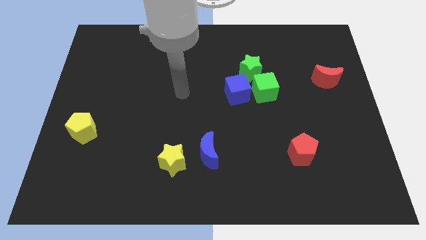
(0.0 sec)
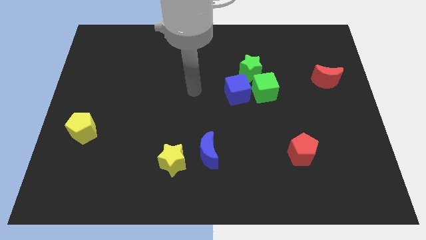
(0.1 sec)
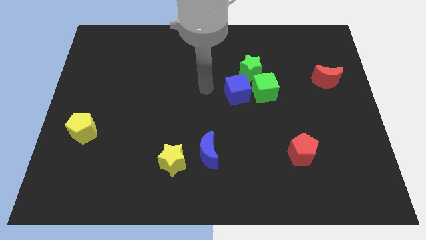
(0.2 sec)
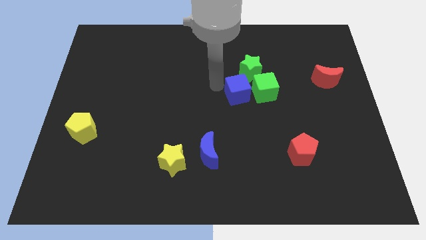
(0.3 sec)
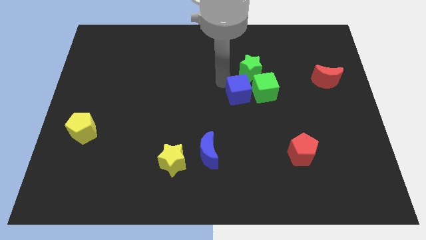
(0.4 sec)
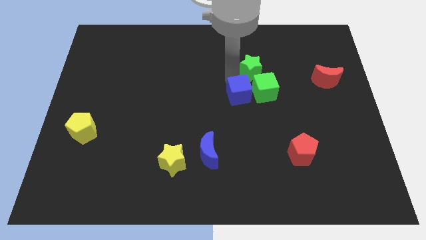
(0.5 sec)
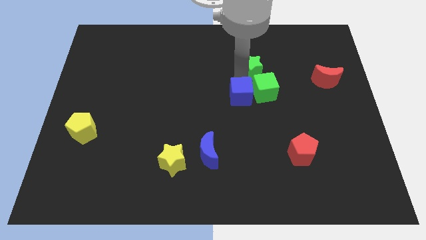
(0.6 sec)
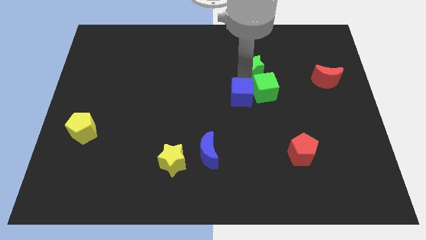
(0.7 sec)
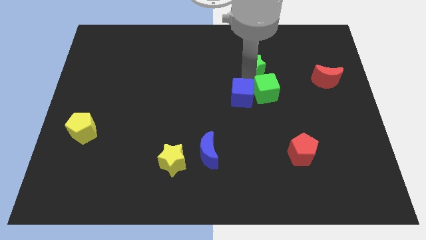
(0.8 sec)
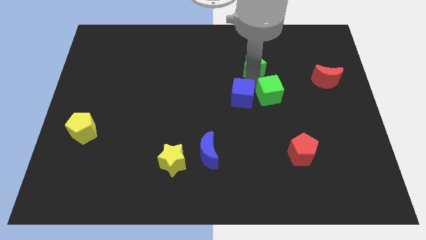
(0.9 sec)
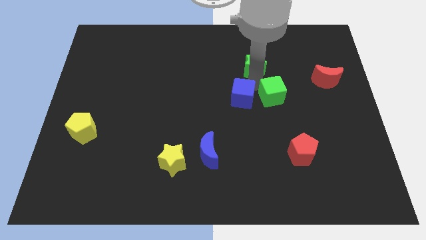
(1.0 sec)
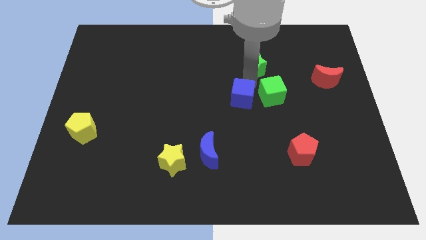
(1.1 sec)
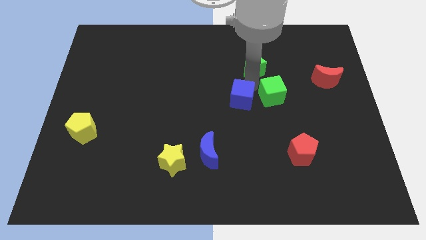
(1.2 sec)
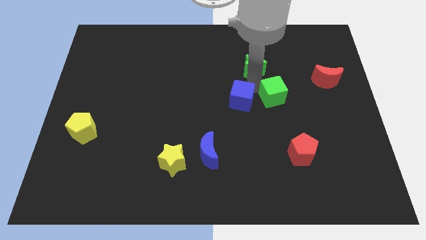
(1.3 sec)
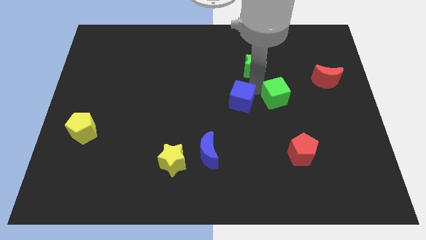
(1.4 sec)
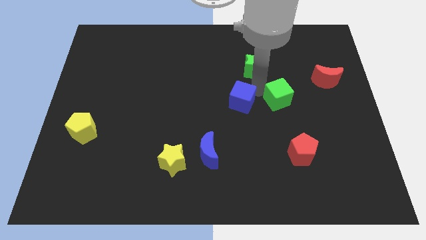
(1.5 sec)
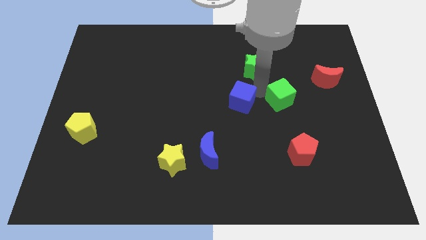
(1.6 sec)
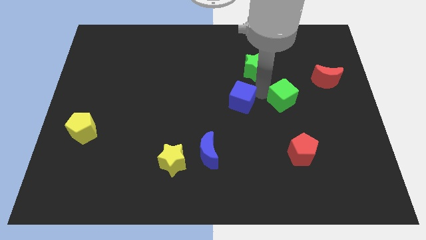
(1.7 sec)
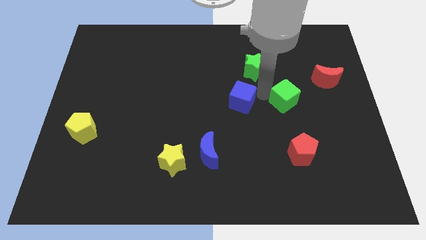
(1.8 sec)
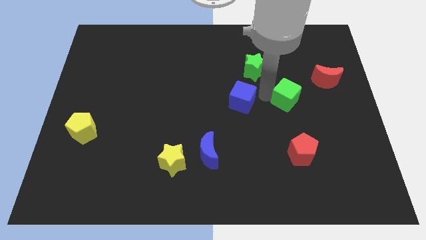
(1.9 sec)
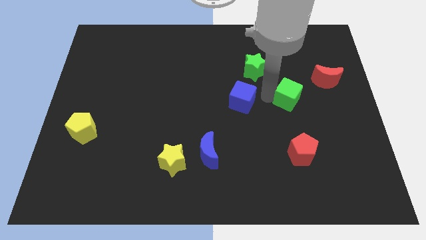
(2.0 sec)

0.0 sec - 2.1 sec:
pull the green cube apart from the blue cube and green star

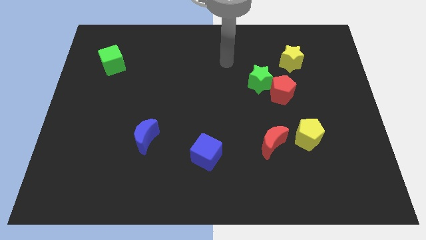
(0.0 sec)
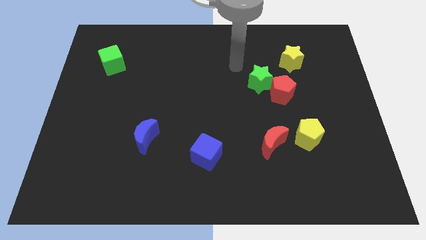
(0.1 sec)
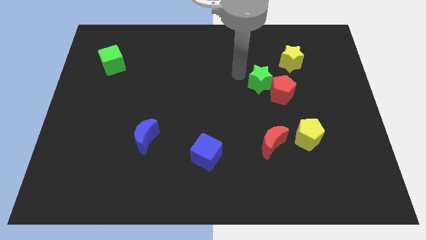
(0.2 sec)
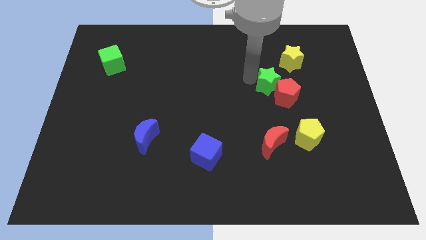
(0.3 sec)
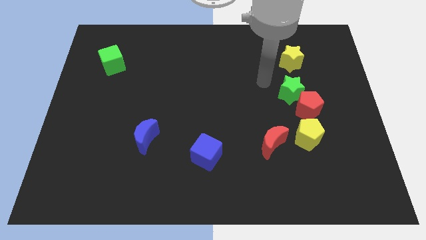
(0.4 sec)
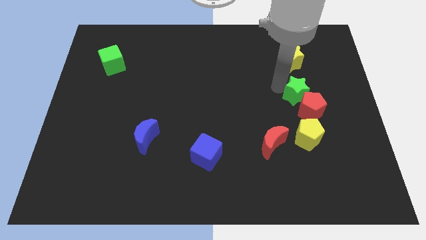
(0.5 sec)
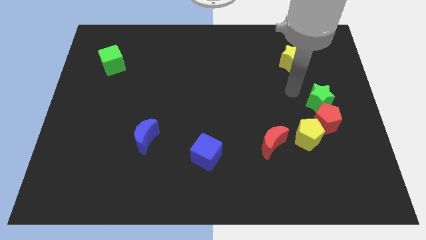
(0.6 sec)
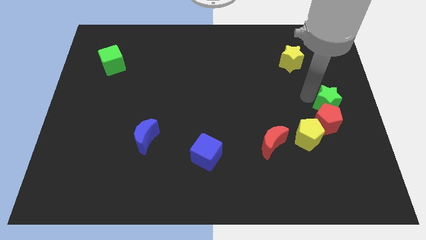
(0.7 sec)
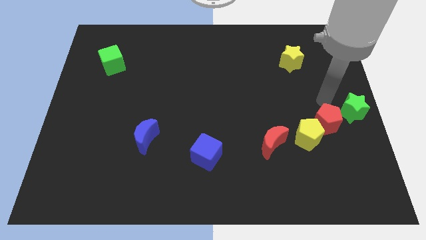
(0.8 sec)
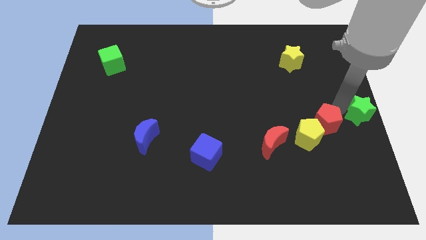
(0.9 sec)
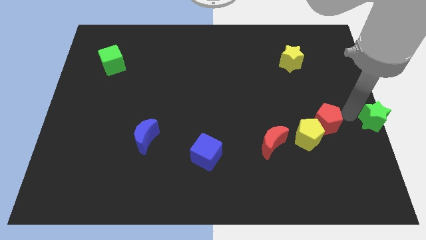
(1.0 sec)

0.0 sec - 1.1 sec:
move the red pentagon away from the green star

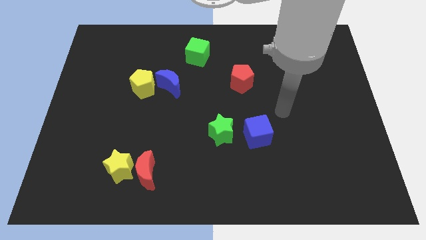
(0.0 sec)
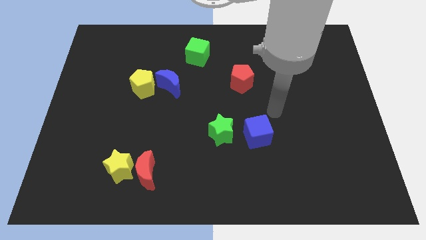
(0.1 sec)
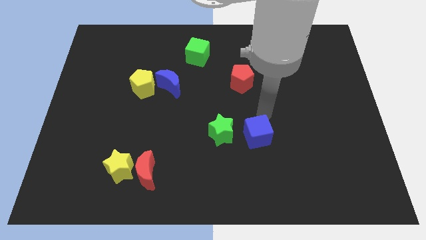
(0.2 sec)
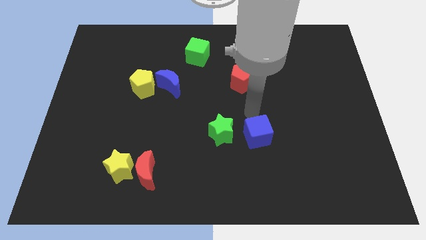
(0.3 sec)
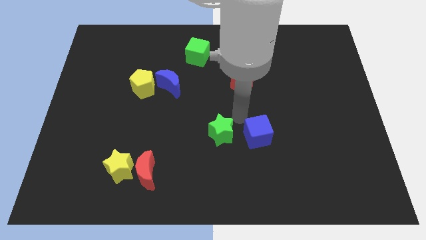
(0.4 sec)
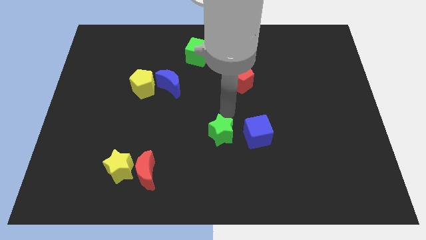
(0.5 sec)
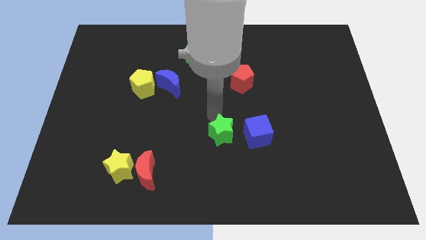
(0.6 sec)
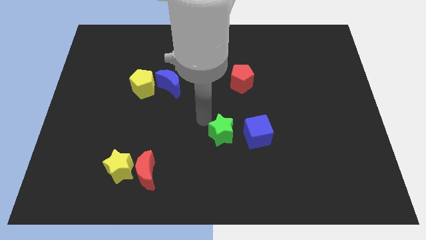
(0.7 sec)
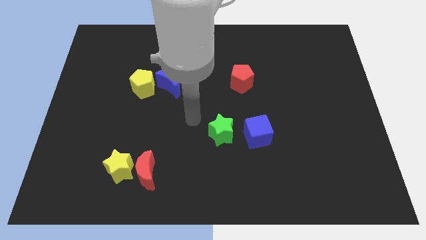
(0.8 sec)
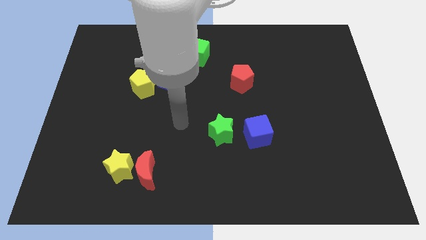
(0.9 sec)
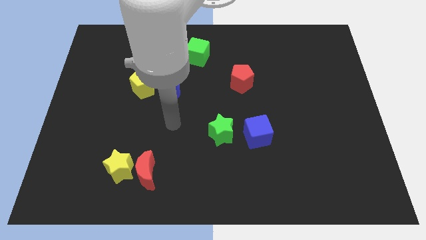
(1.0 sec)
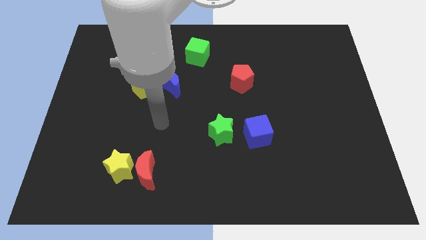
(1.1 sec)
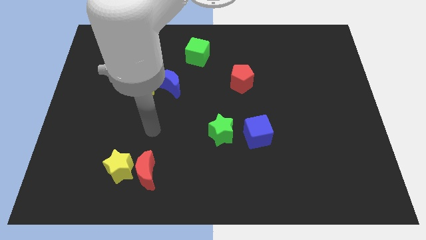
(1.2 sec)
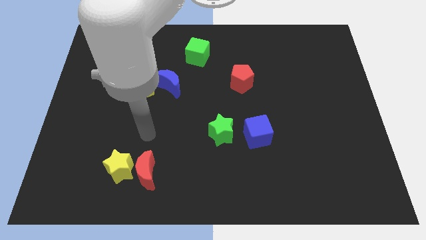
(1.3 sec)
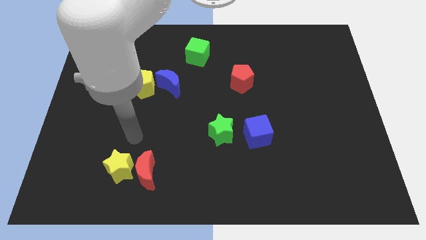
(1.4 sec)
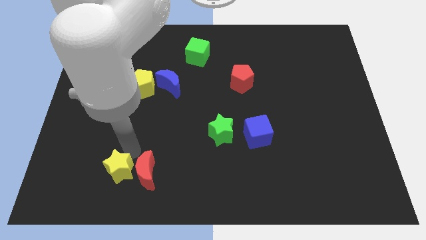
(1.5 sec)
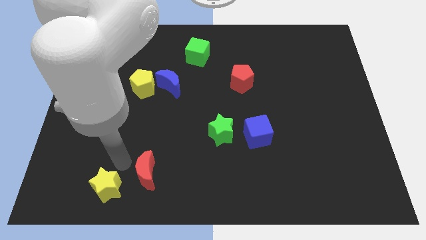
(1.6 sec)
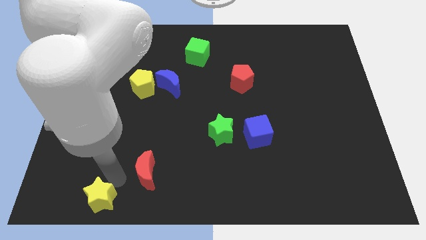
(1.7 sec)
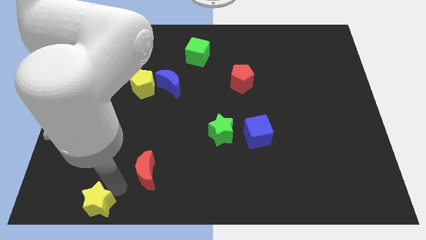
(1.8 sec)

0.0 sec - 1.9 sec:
pull the red moon apart from the yellow star

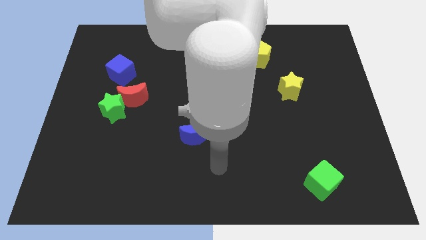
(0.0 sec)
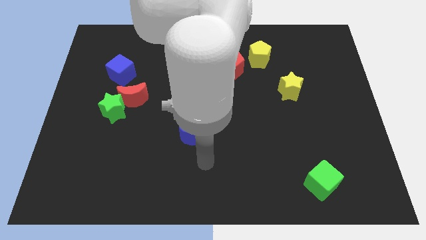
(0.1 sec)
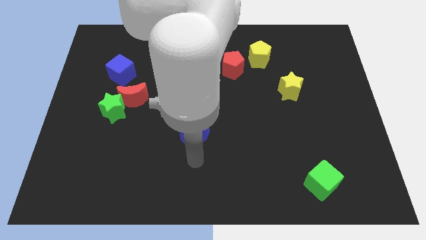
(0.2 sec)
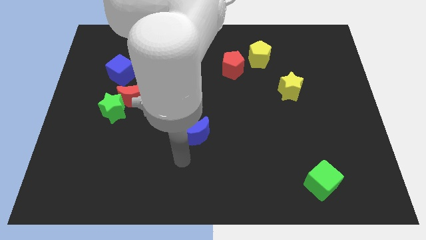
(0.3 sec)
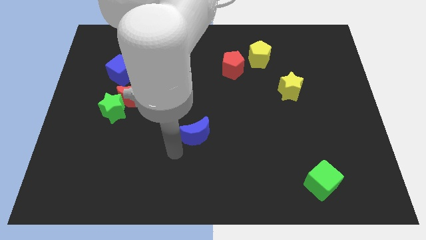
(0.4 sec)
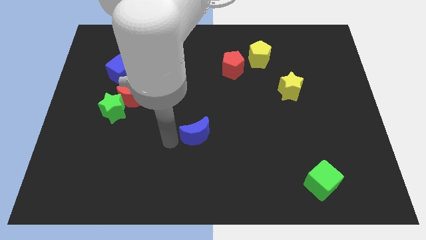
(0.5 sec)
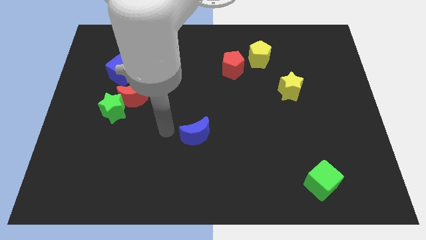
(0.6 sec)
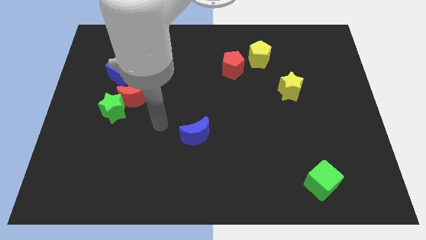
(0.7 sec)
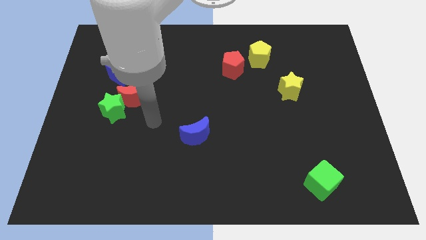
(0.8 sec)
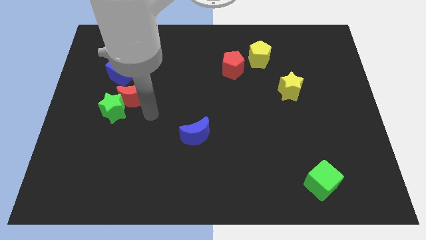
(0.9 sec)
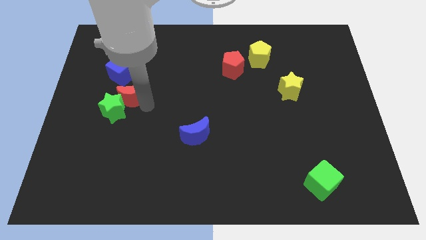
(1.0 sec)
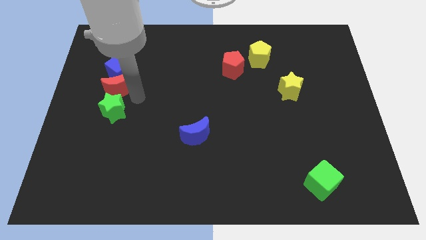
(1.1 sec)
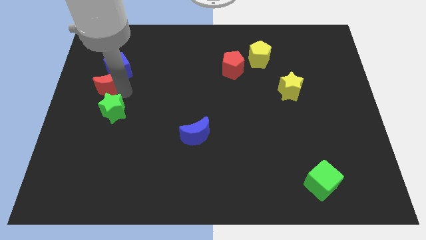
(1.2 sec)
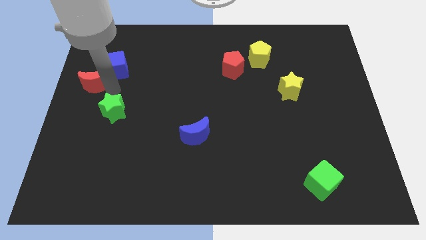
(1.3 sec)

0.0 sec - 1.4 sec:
pull the green star apart from the red moon

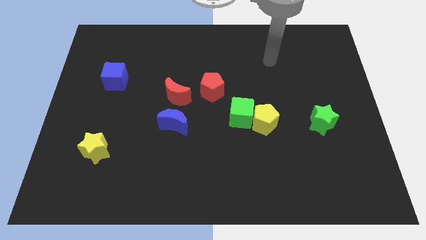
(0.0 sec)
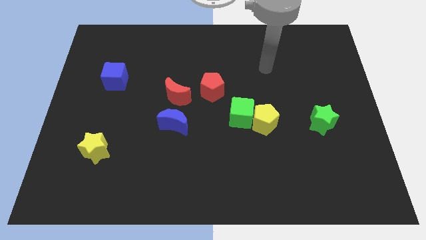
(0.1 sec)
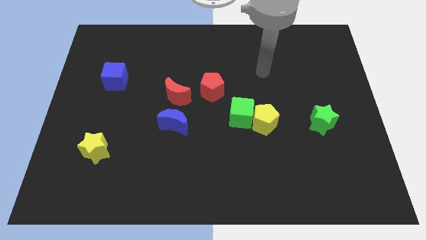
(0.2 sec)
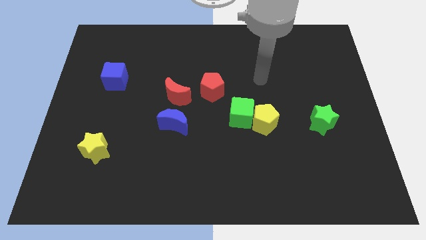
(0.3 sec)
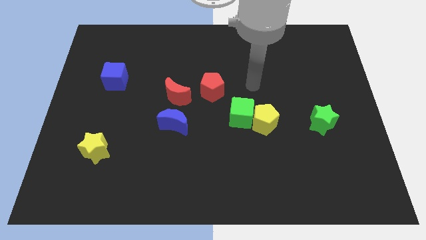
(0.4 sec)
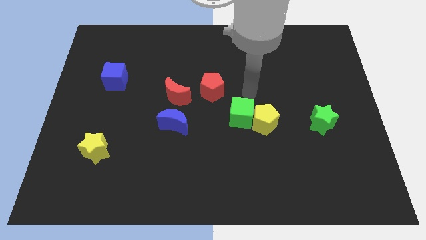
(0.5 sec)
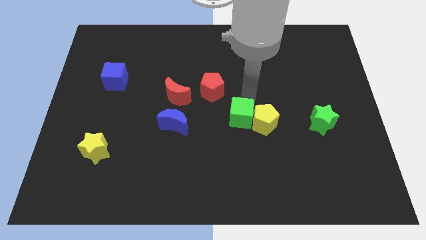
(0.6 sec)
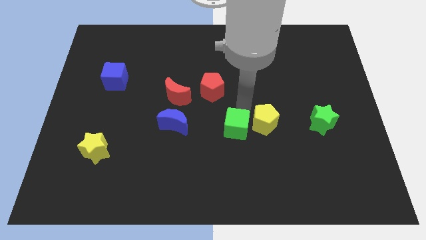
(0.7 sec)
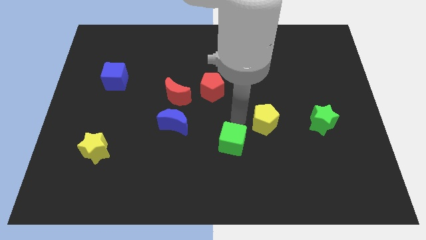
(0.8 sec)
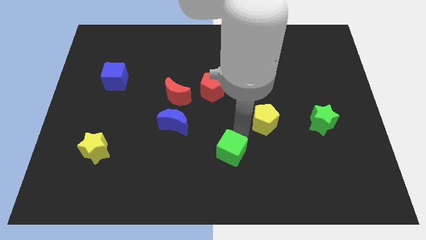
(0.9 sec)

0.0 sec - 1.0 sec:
move the yellow pentagon away from the green cube

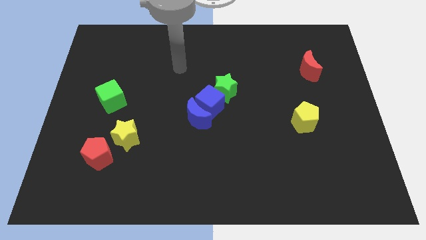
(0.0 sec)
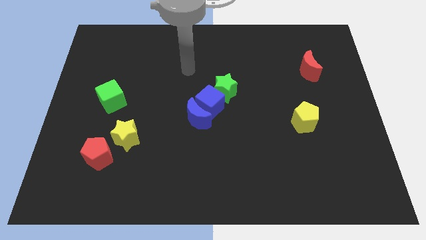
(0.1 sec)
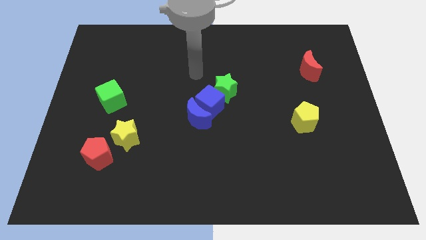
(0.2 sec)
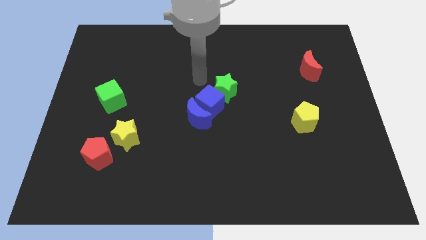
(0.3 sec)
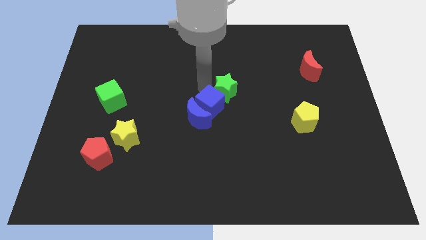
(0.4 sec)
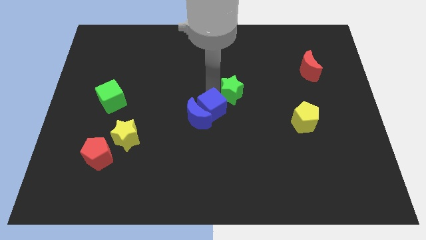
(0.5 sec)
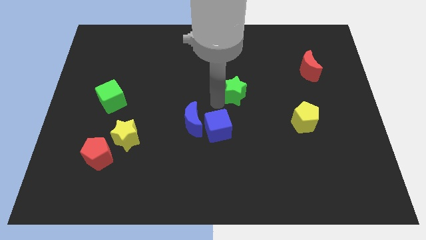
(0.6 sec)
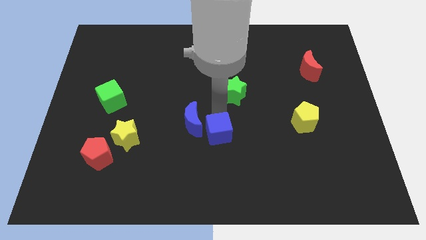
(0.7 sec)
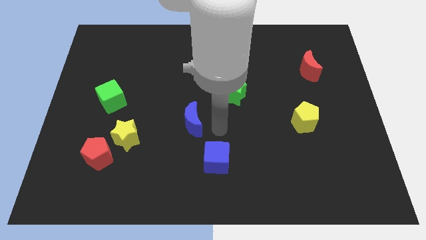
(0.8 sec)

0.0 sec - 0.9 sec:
move the blue moon away from the blue cube

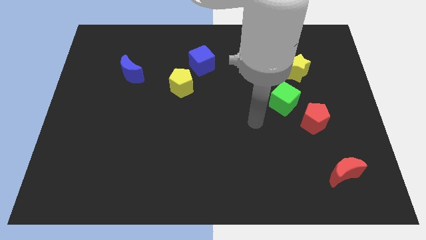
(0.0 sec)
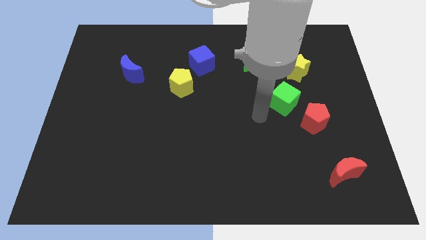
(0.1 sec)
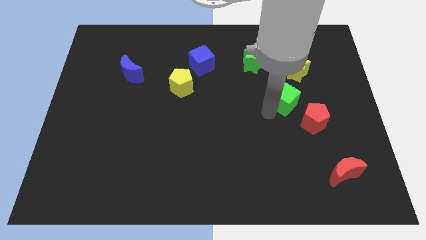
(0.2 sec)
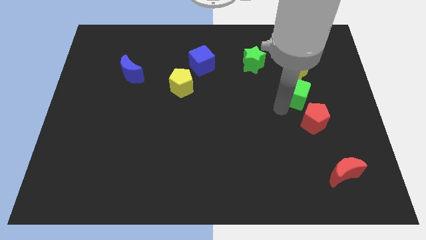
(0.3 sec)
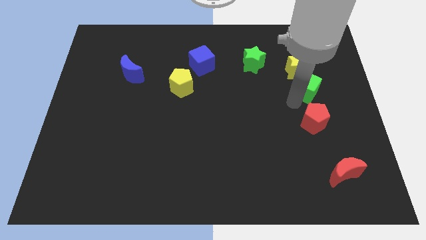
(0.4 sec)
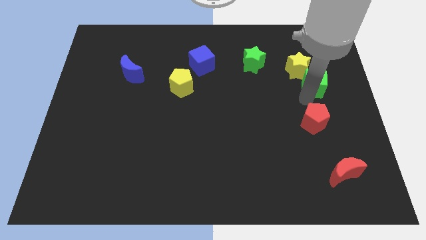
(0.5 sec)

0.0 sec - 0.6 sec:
pull the red pentagon apart from the green cube

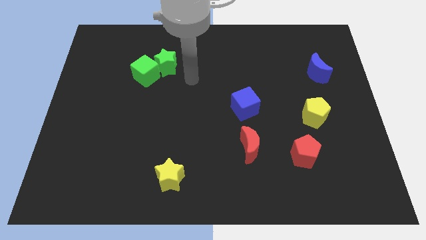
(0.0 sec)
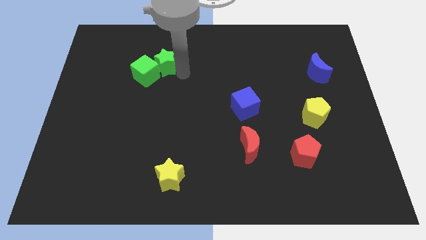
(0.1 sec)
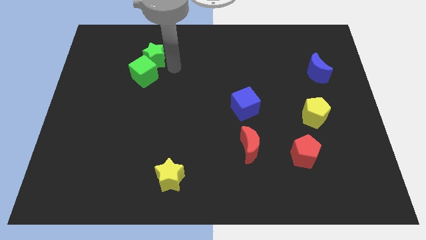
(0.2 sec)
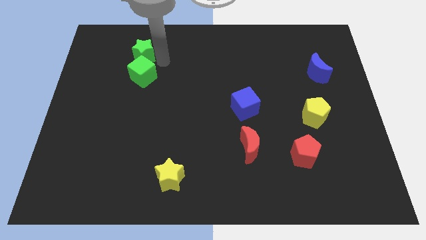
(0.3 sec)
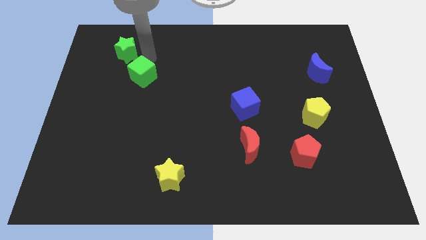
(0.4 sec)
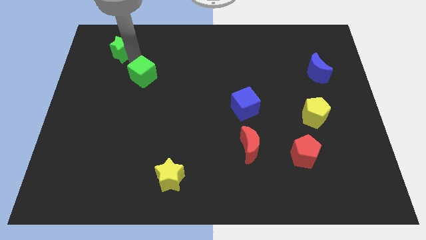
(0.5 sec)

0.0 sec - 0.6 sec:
separate the green cube from the green star
